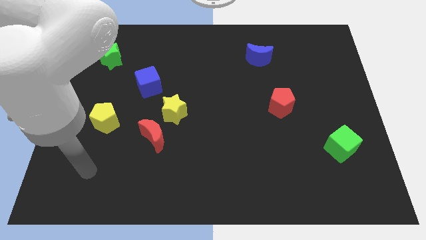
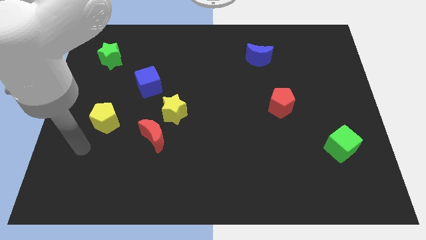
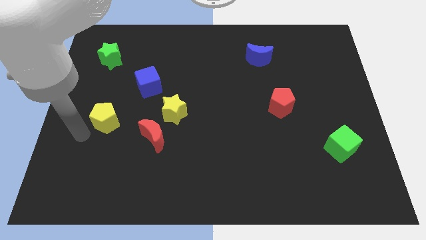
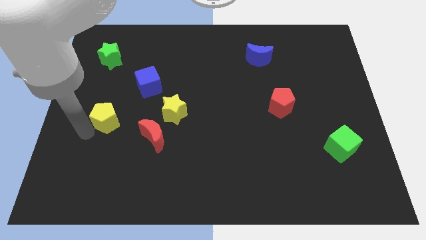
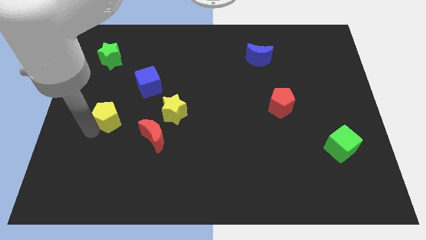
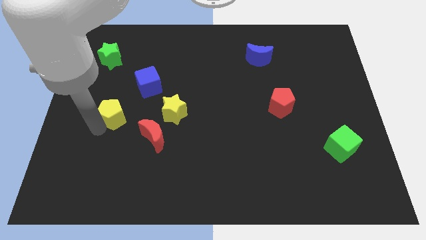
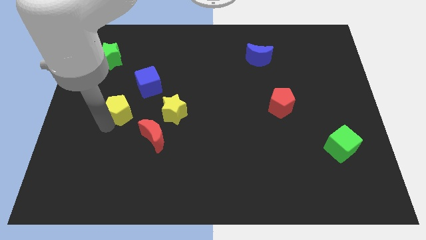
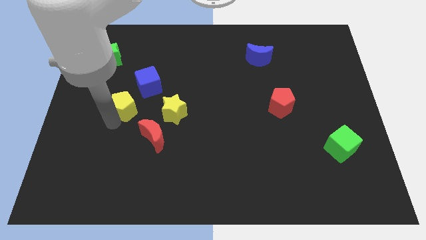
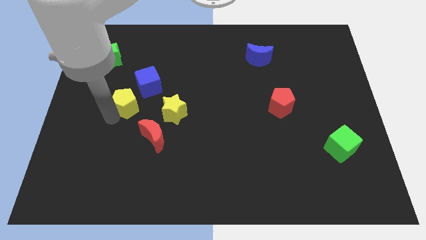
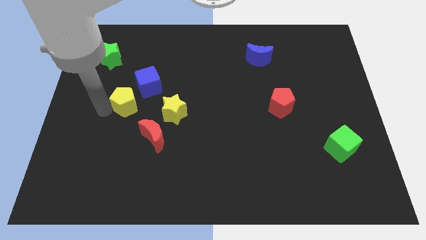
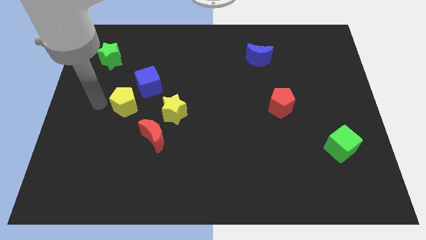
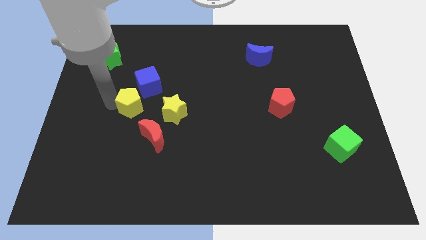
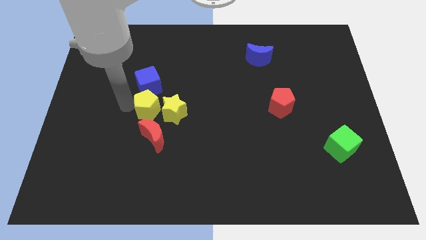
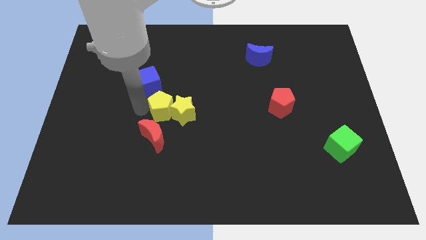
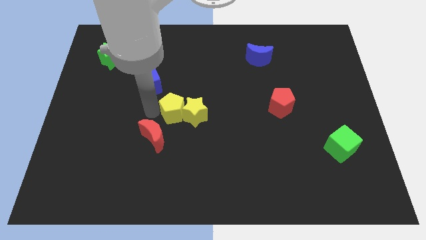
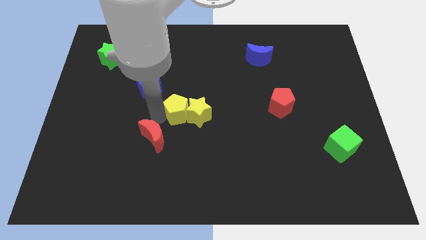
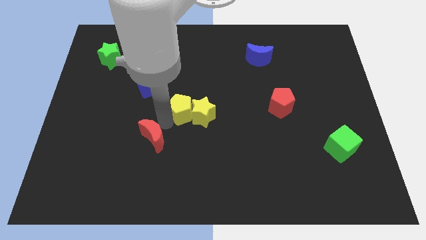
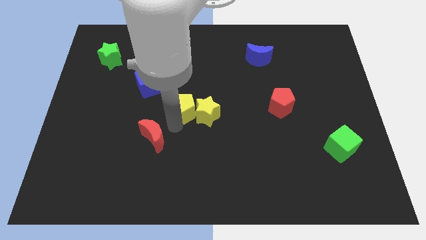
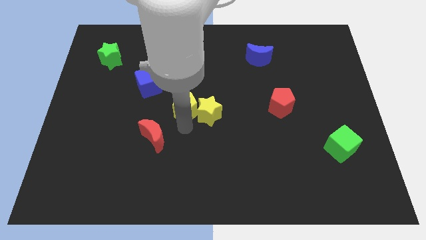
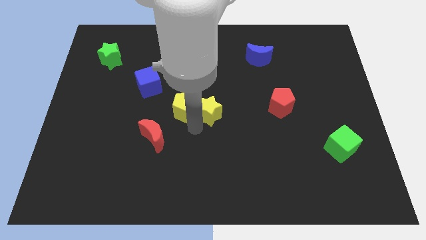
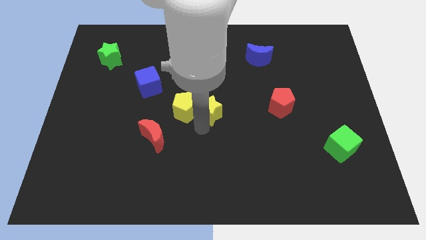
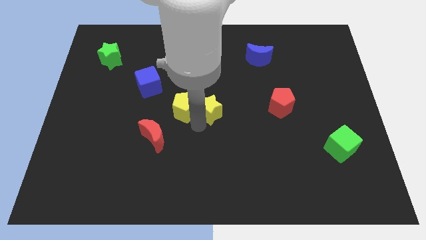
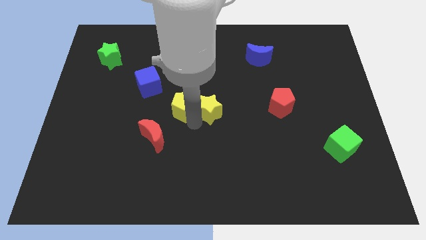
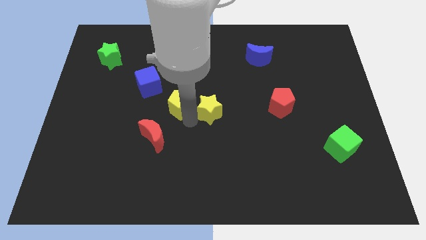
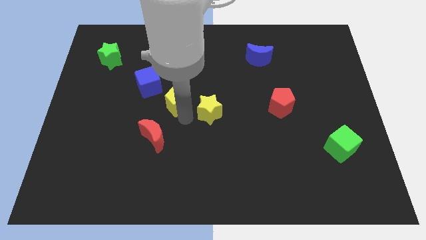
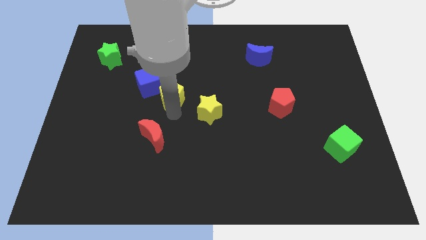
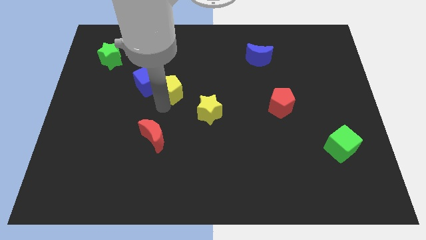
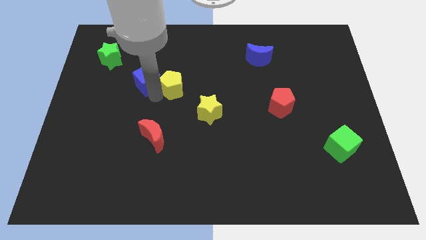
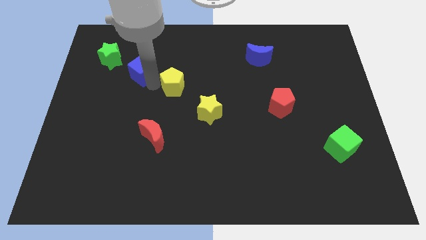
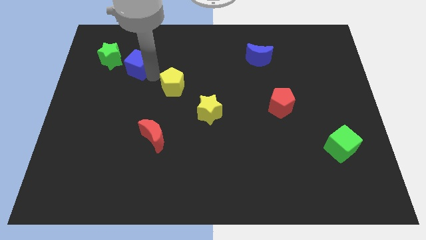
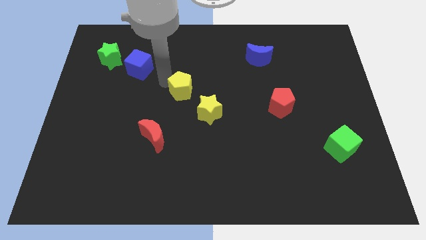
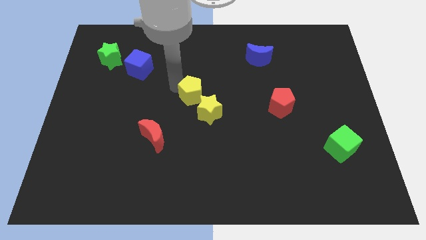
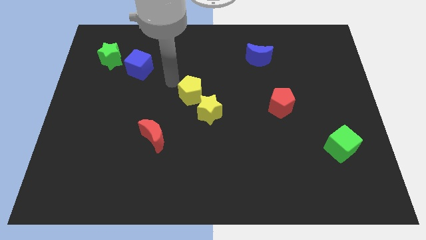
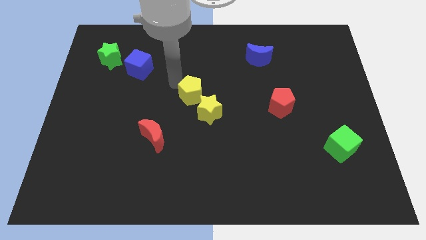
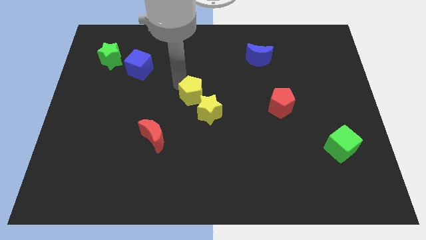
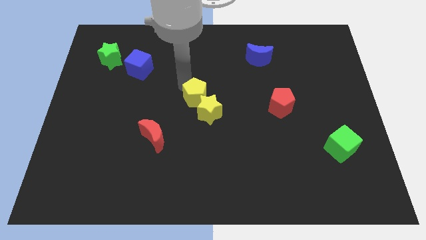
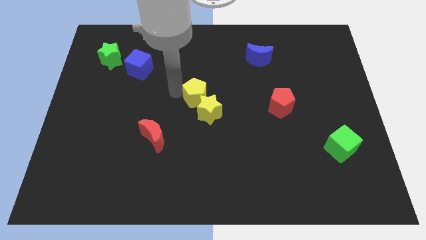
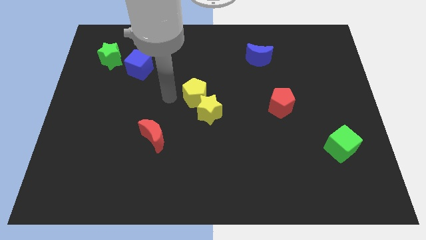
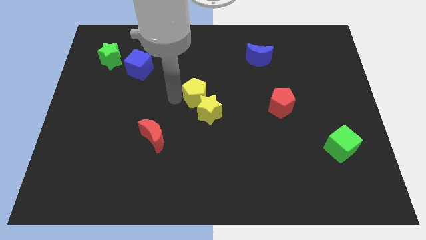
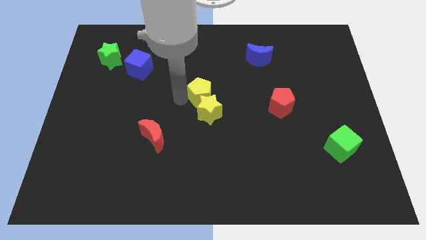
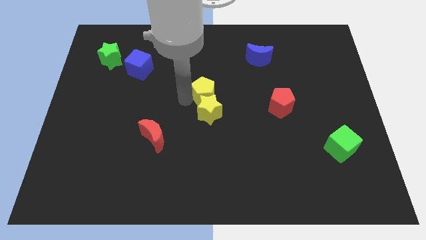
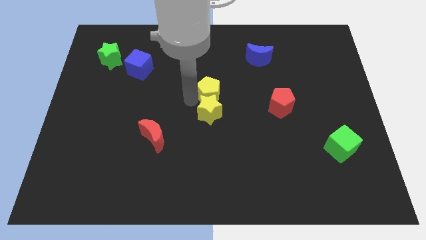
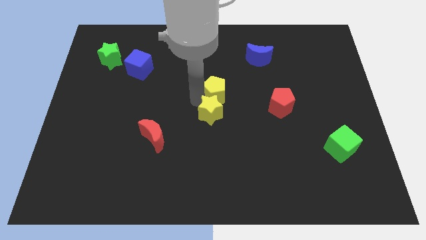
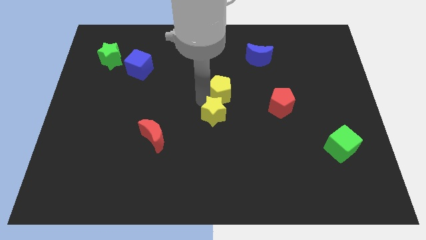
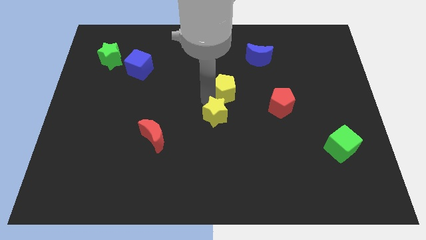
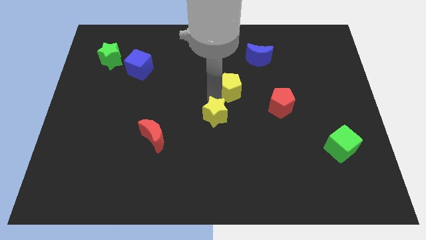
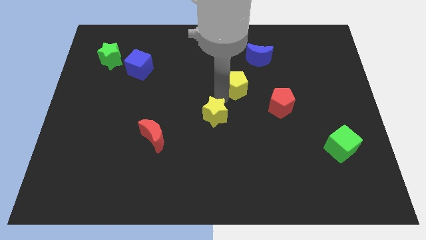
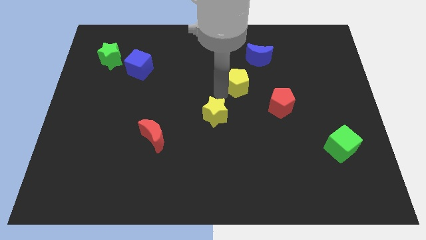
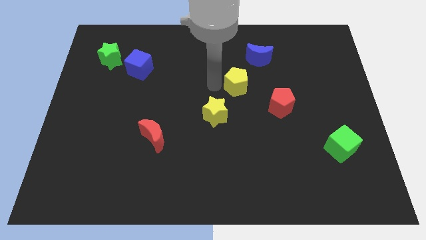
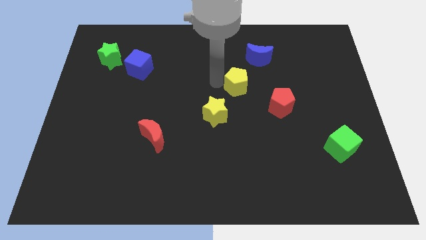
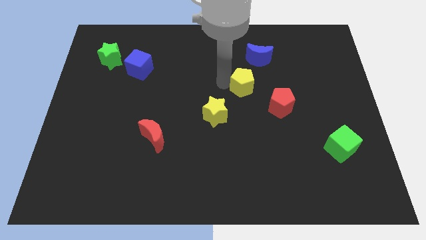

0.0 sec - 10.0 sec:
put the yellow pentagon to the bottom of the blue moon

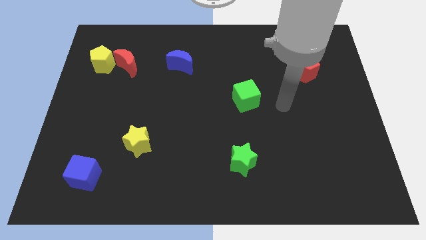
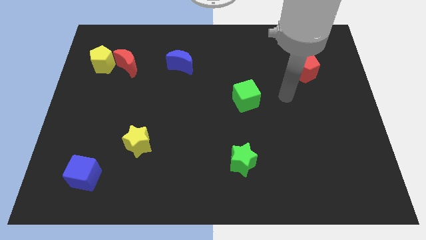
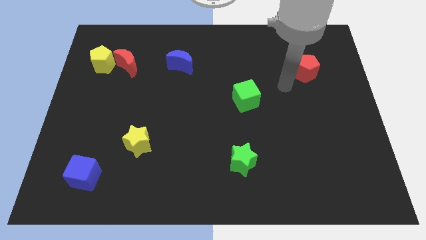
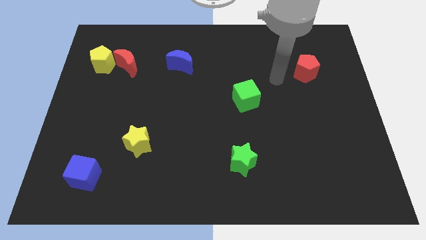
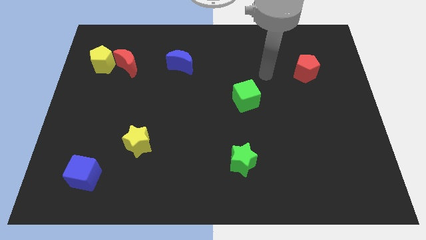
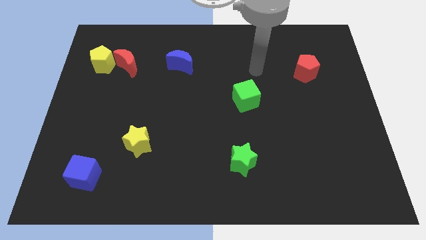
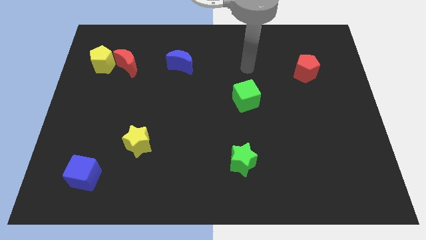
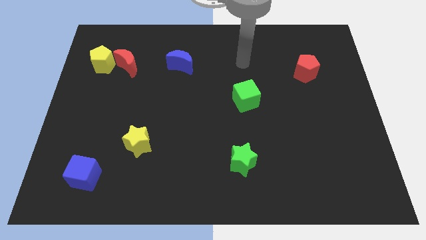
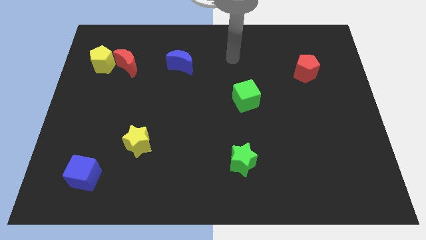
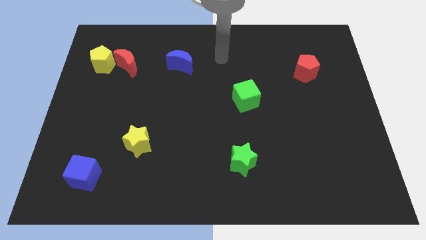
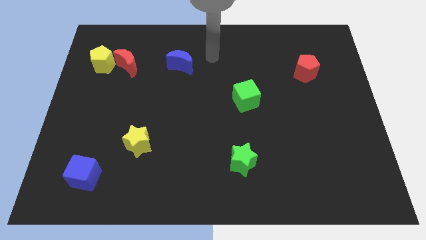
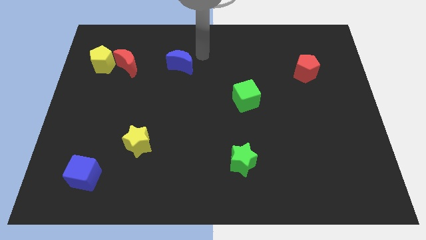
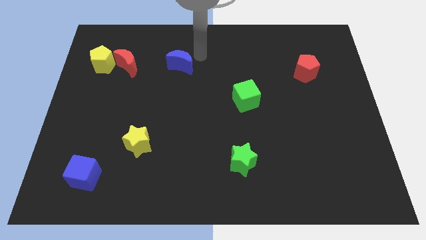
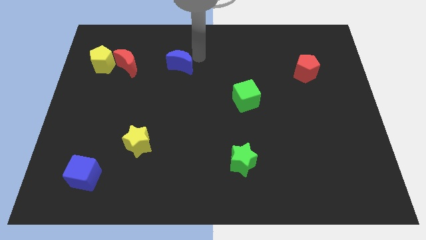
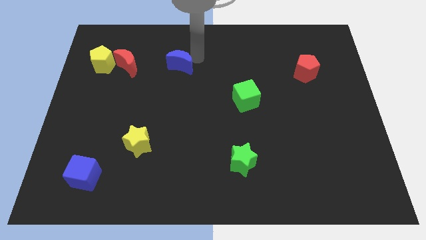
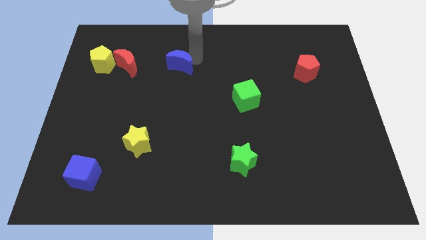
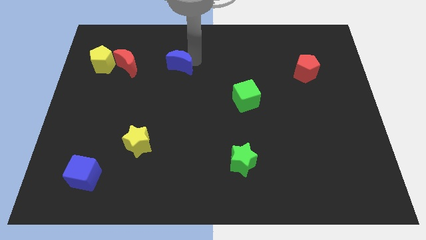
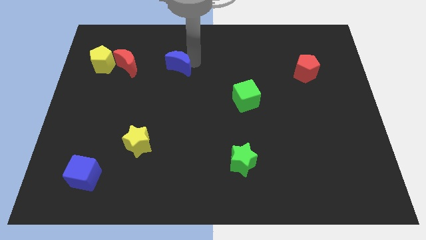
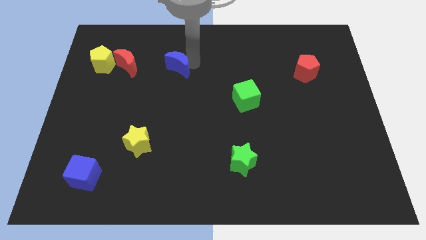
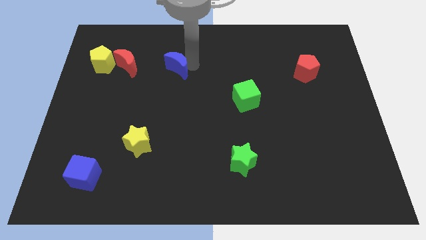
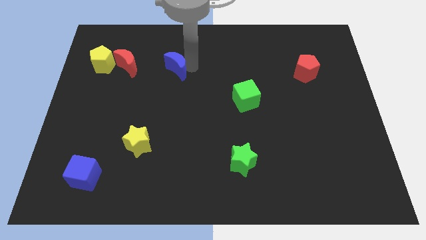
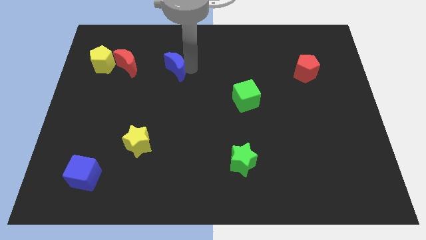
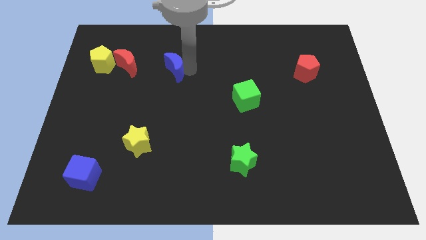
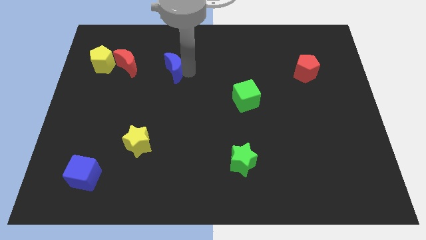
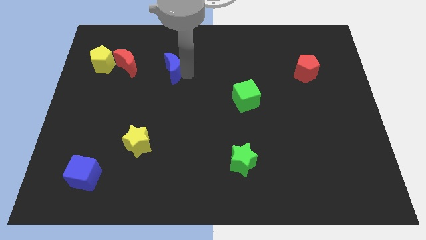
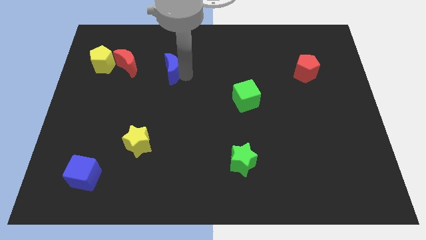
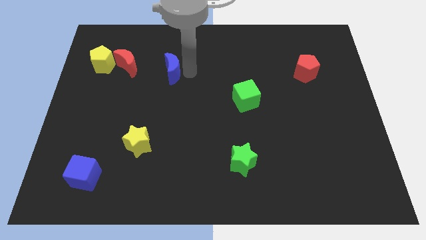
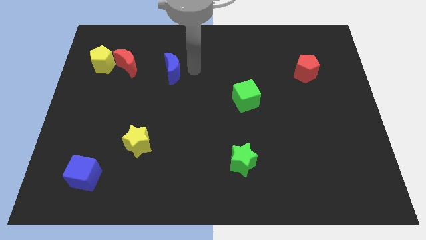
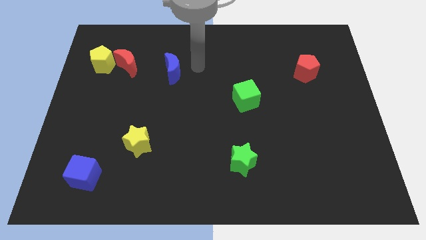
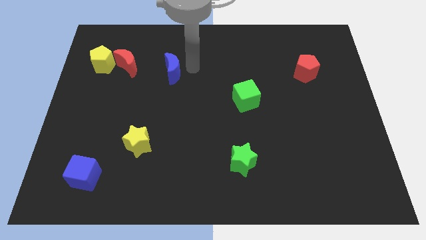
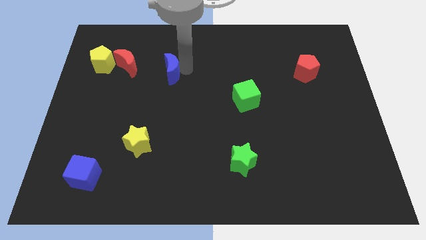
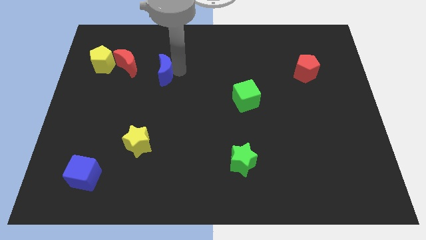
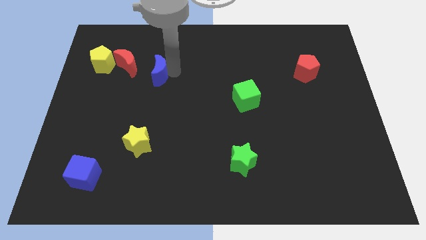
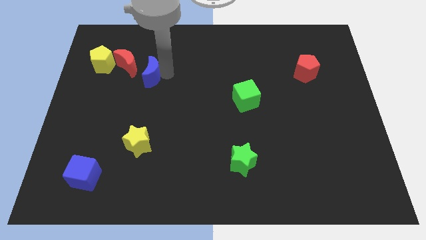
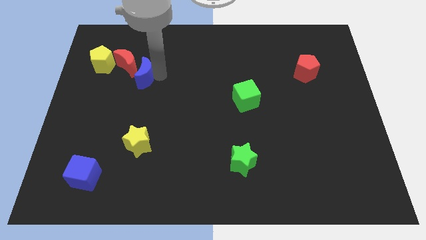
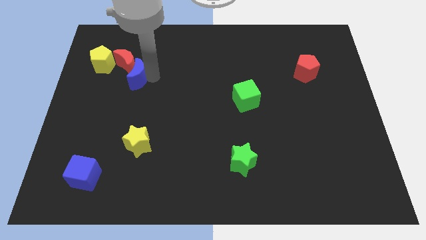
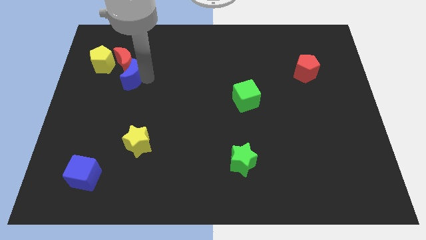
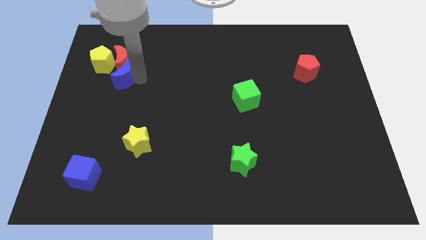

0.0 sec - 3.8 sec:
move the blue moon to the bottom left side of the red moon
